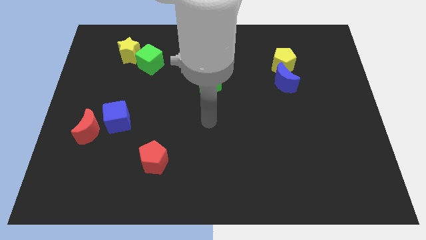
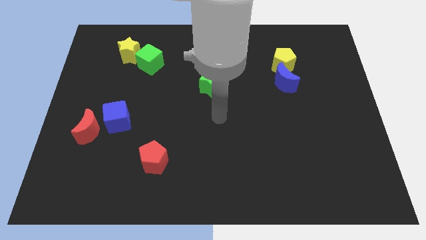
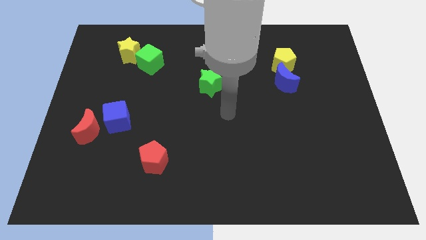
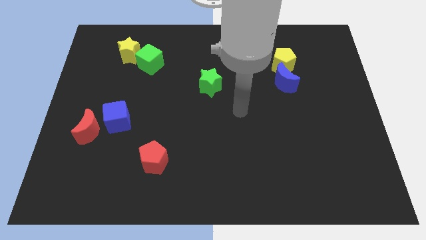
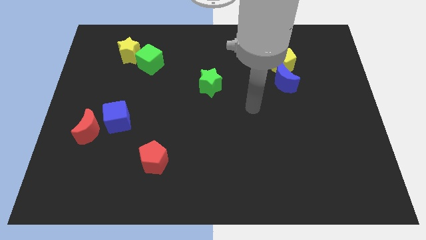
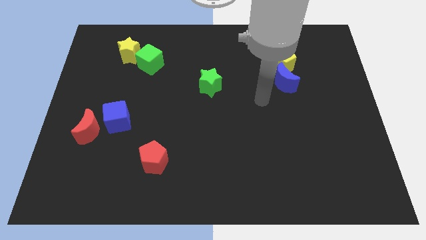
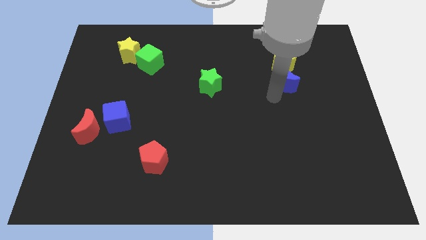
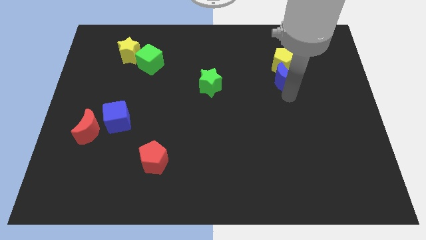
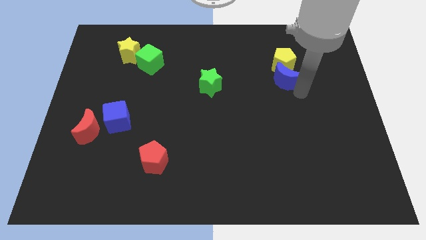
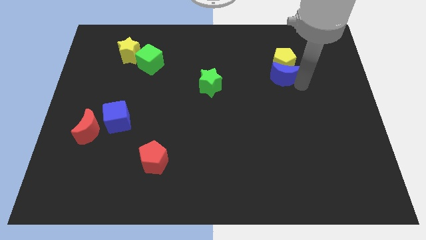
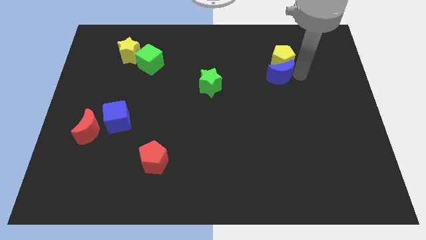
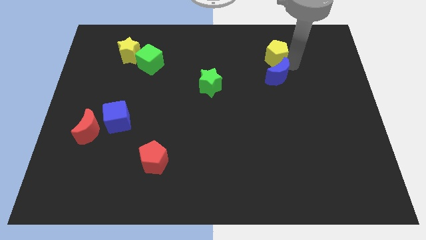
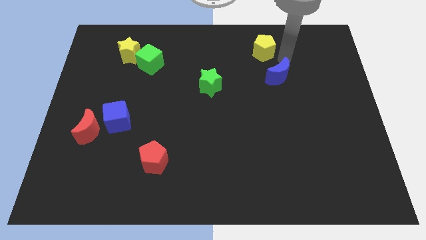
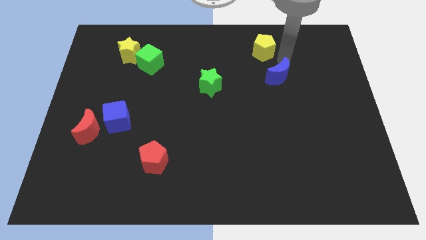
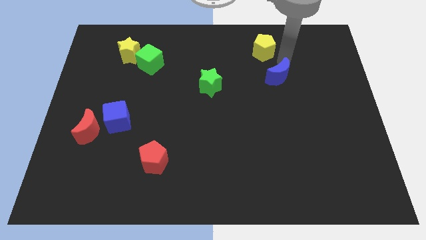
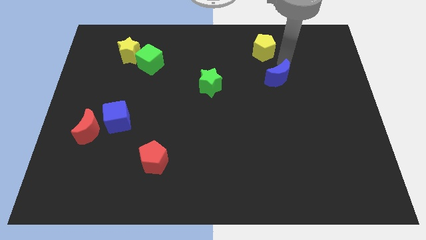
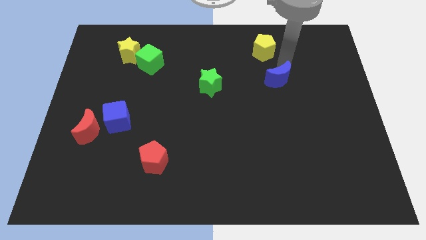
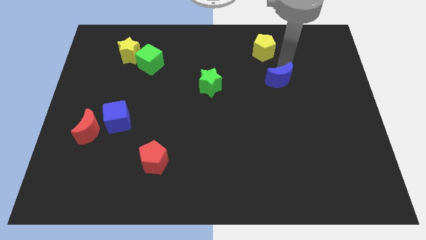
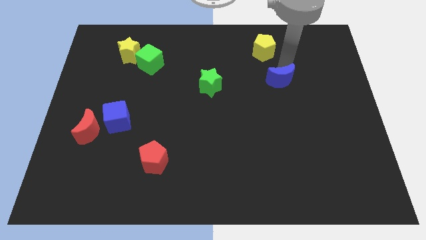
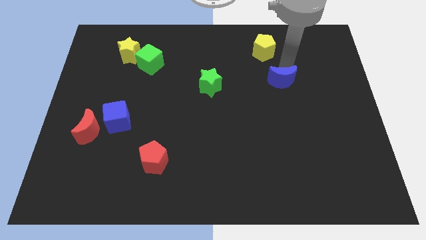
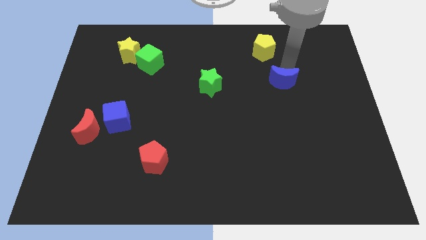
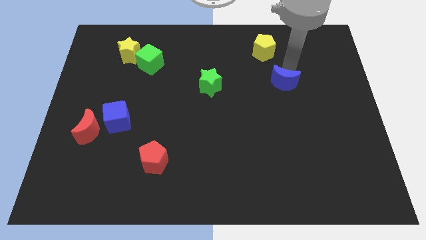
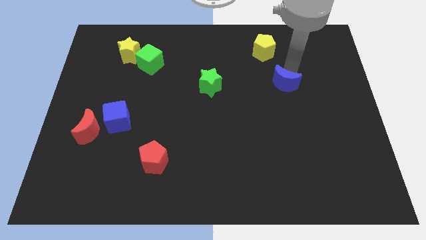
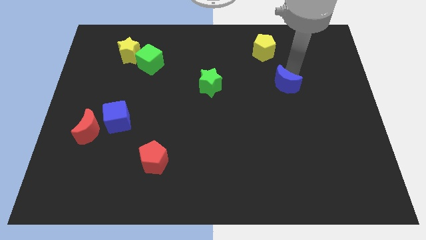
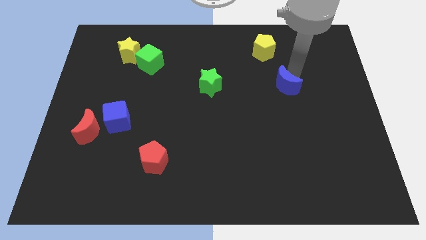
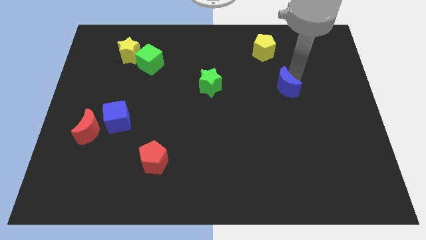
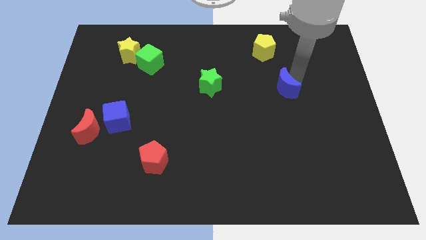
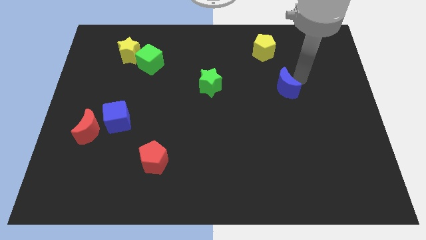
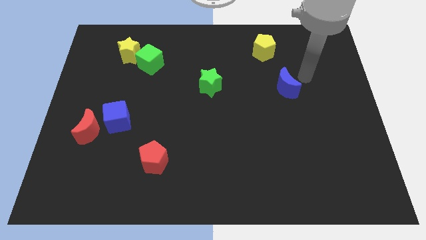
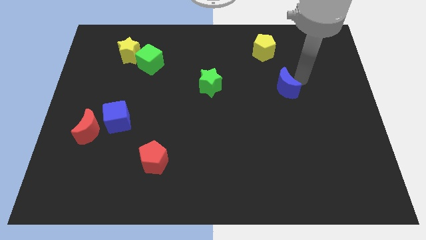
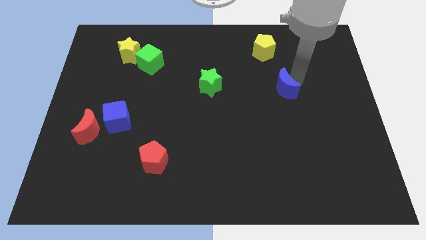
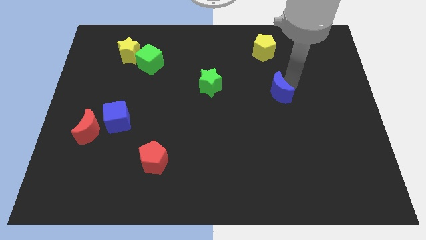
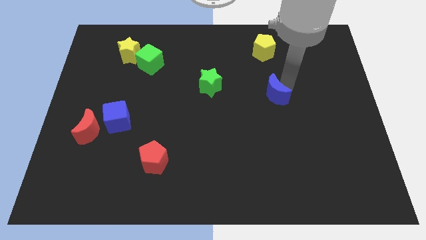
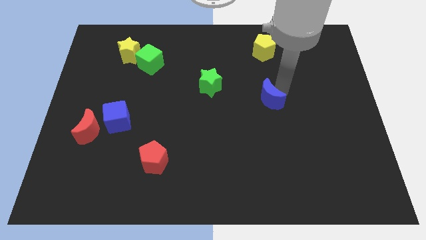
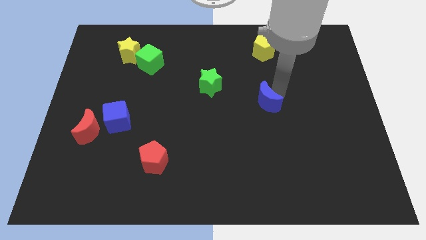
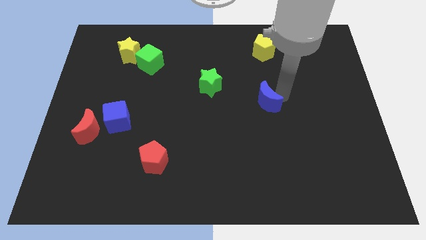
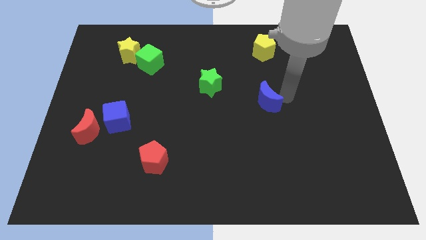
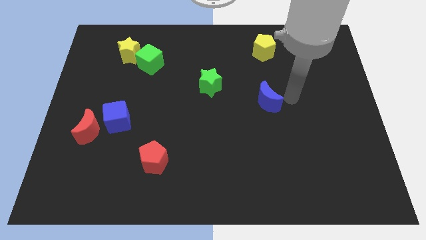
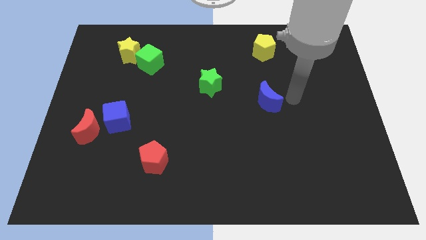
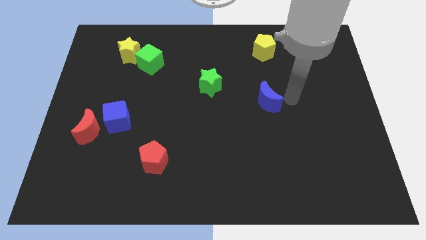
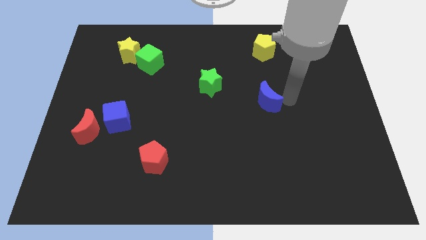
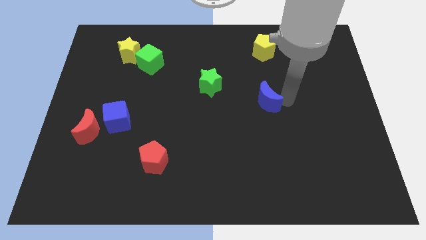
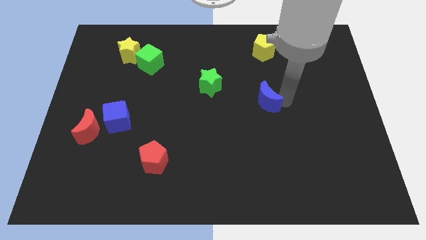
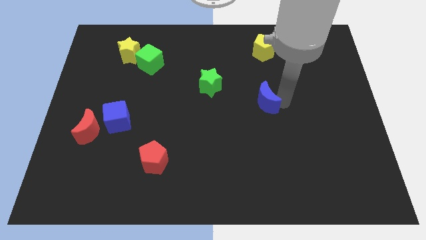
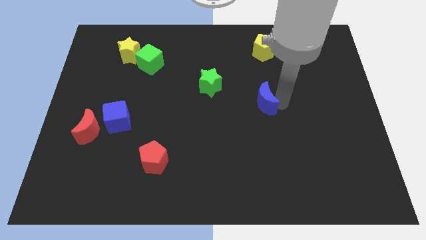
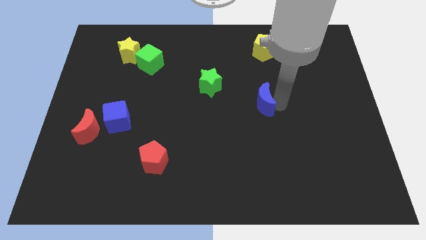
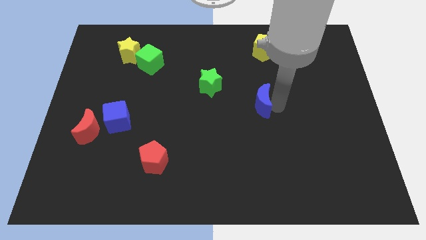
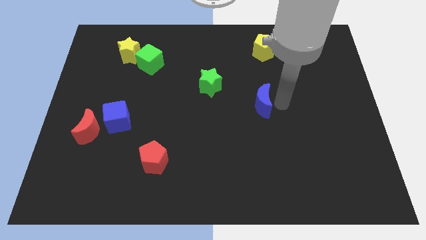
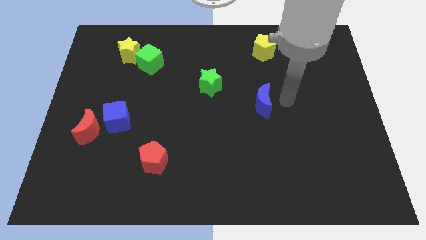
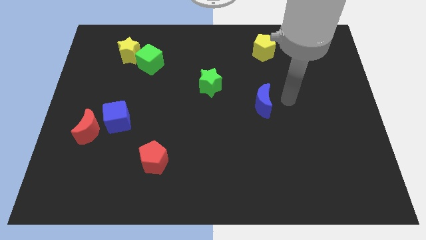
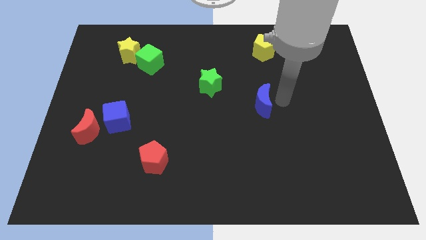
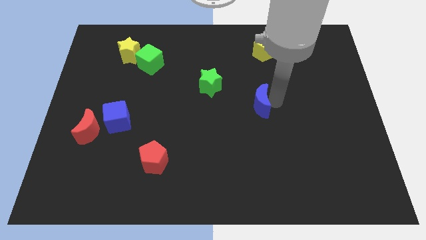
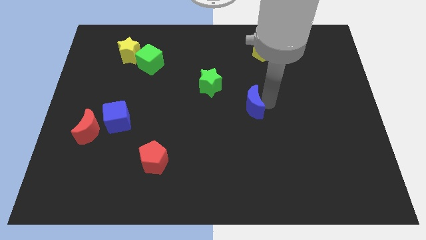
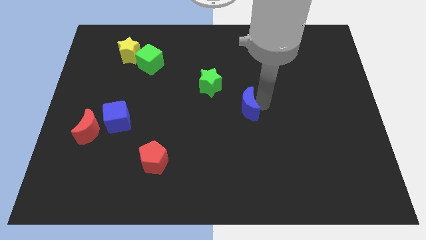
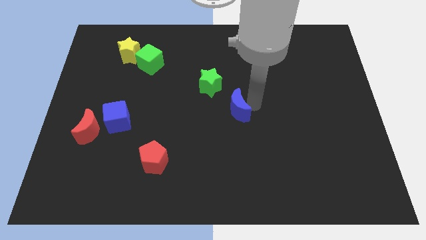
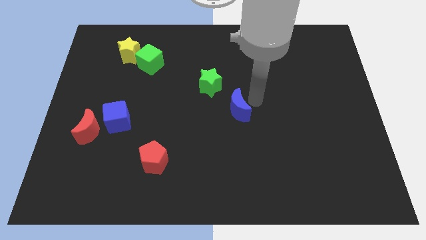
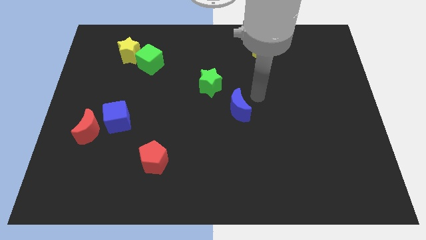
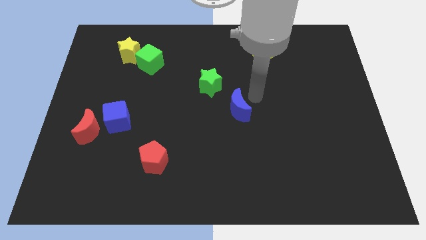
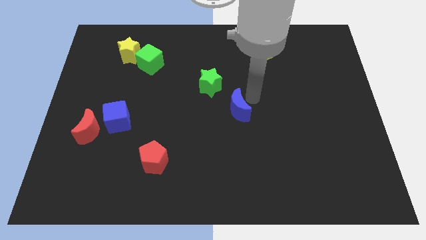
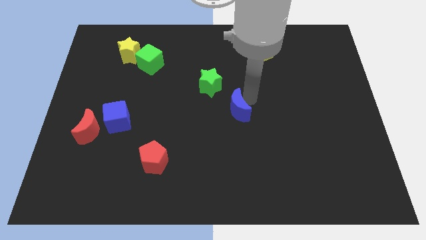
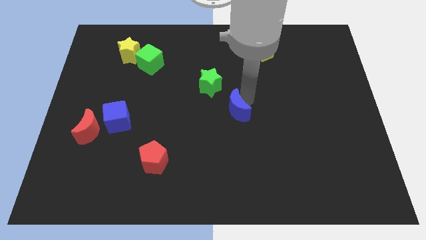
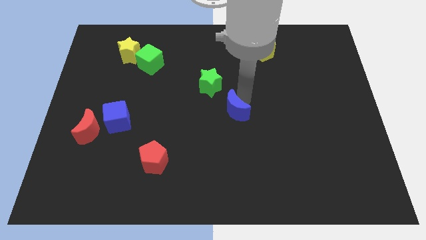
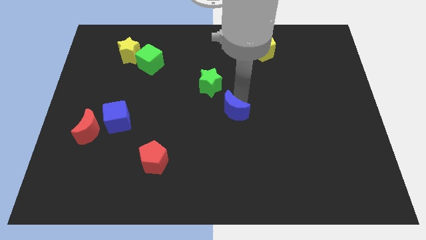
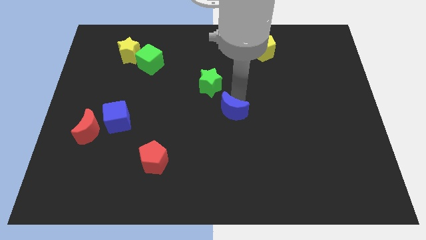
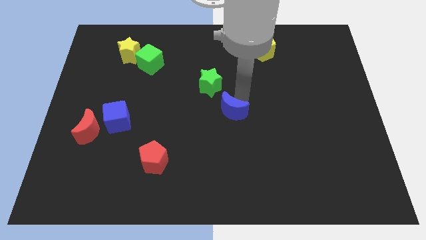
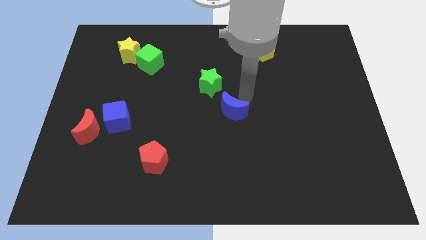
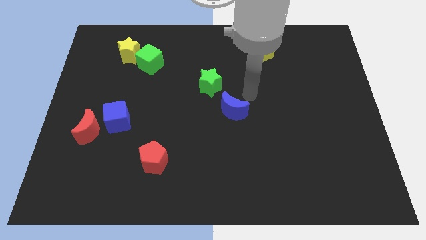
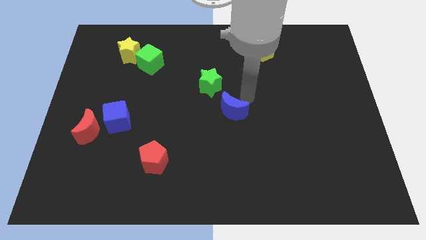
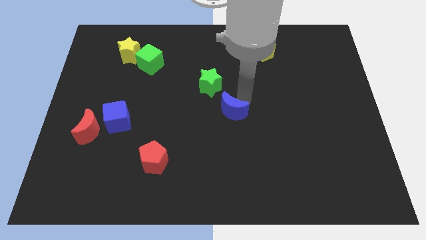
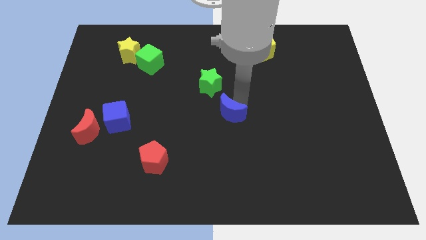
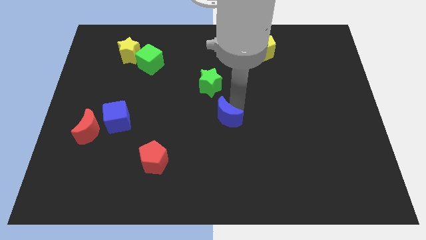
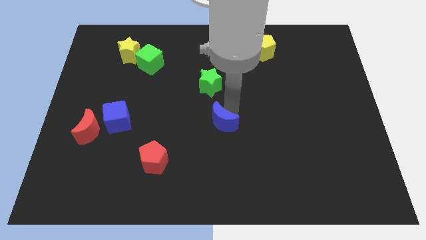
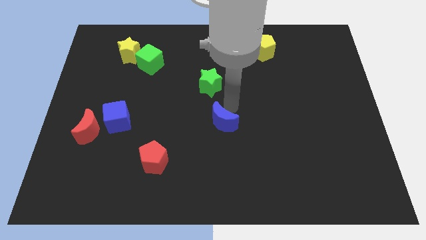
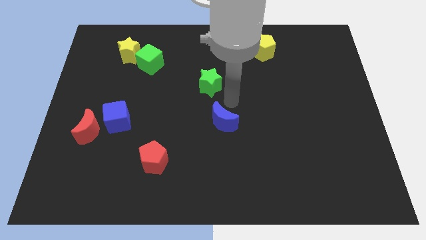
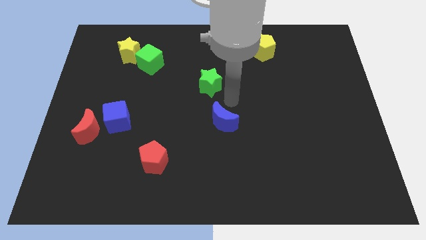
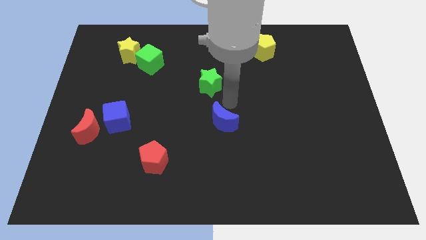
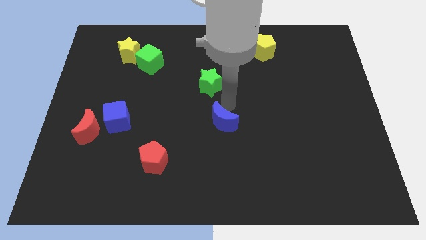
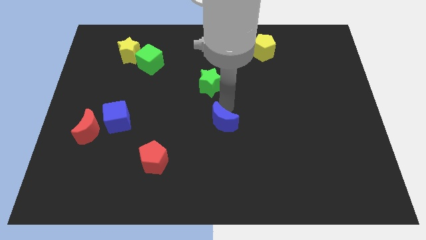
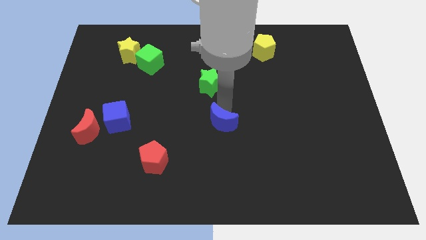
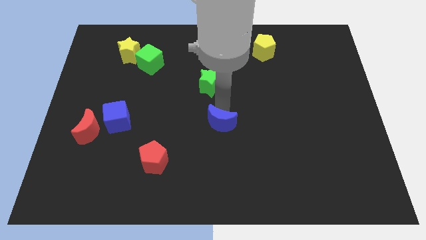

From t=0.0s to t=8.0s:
slide the blue moon downwards and to the left diagonally
